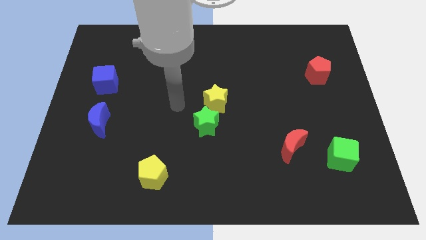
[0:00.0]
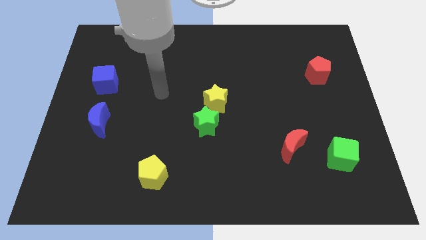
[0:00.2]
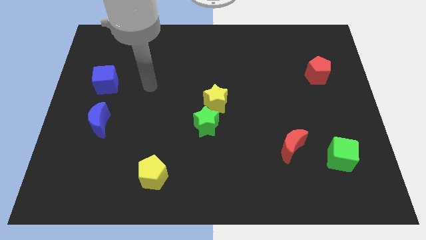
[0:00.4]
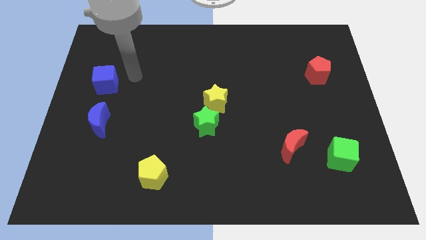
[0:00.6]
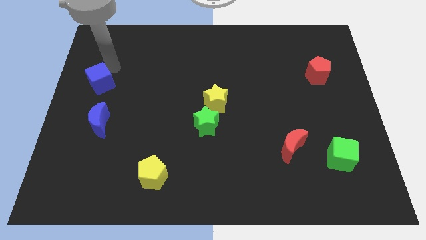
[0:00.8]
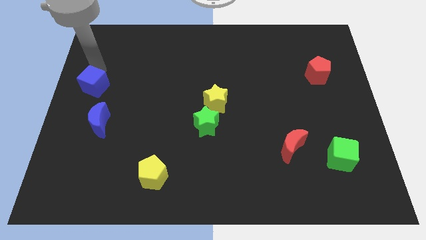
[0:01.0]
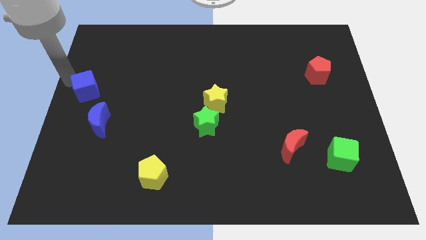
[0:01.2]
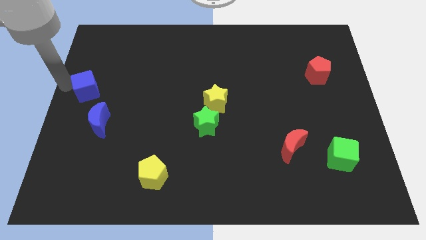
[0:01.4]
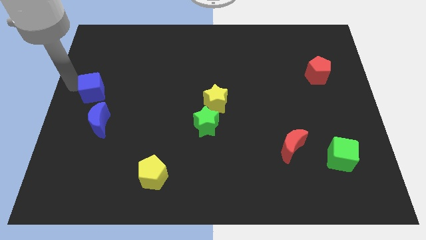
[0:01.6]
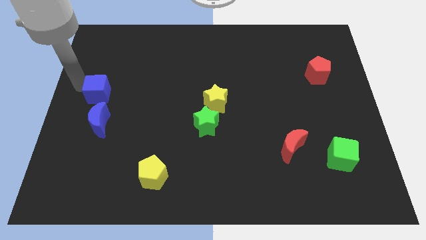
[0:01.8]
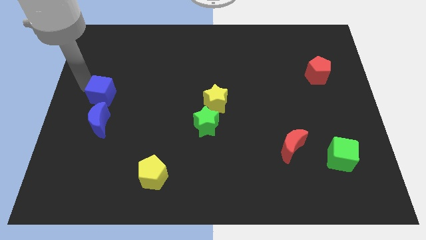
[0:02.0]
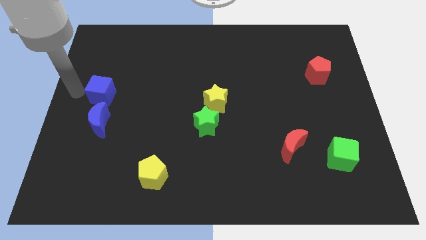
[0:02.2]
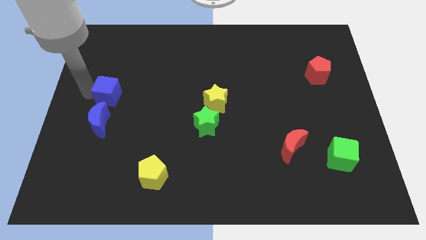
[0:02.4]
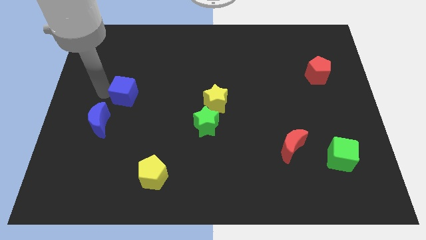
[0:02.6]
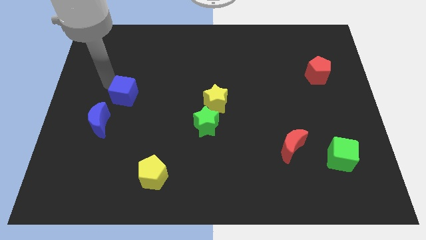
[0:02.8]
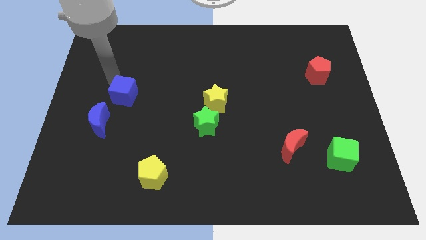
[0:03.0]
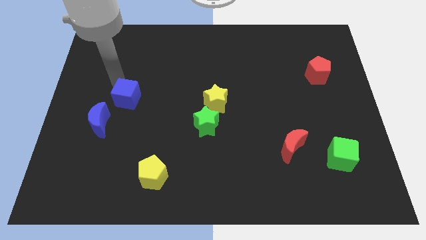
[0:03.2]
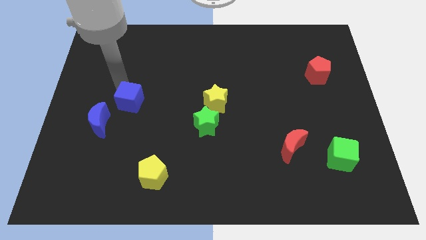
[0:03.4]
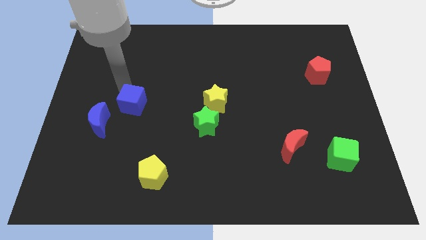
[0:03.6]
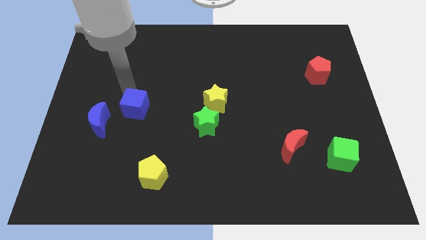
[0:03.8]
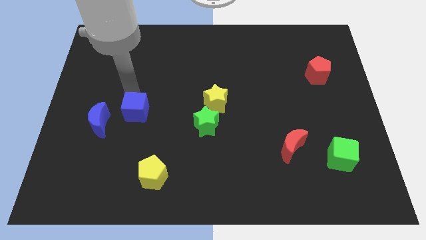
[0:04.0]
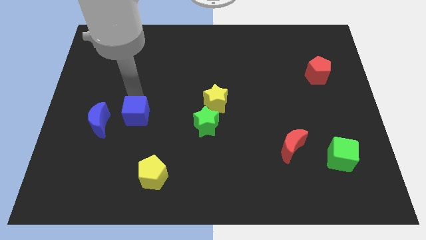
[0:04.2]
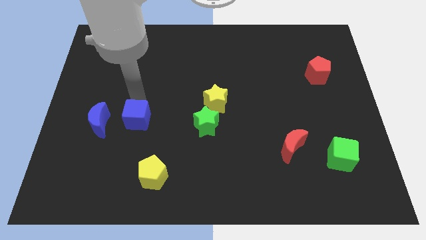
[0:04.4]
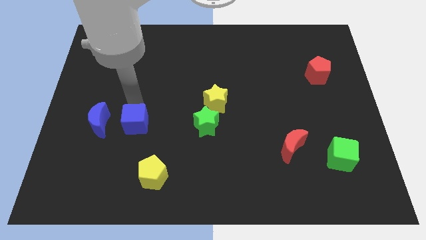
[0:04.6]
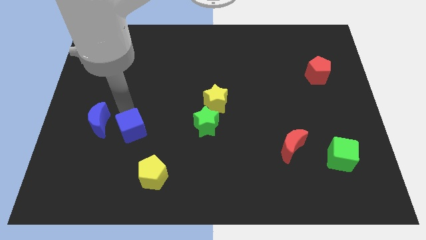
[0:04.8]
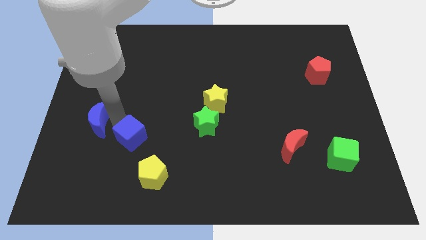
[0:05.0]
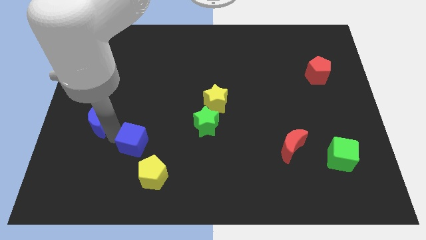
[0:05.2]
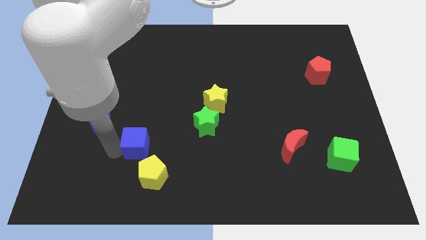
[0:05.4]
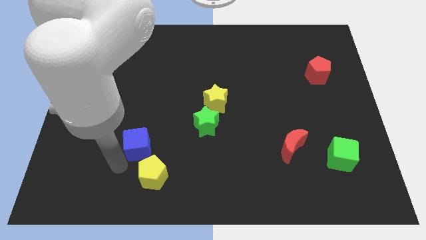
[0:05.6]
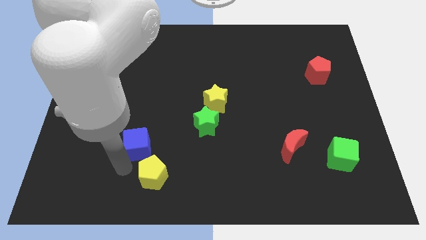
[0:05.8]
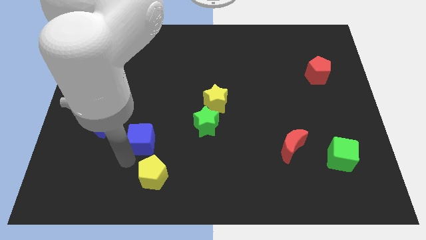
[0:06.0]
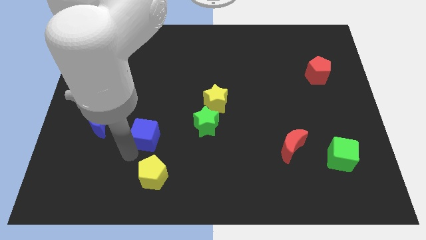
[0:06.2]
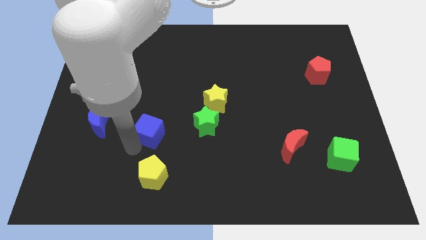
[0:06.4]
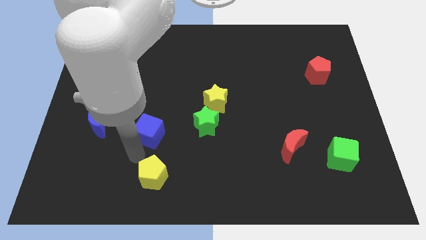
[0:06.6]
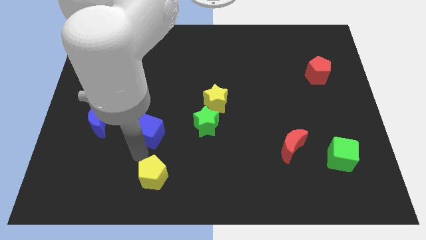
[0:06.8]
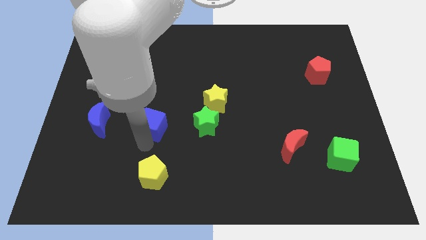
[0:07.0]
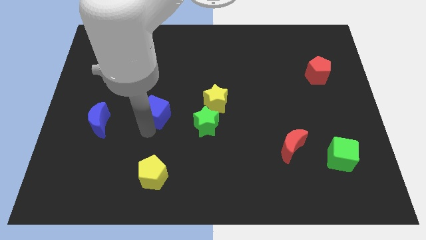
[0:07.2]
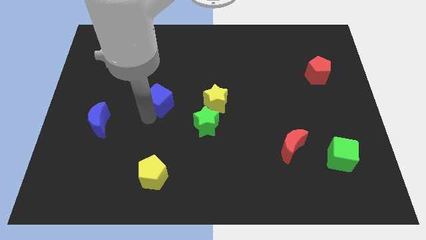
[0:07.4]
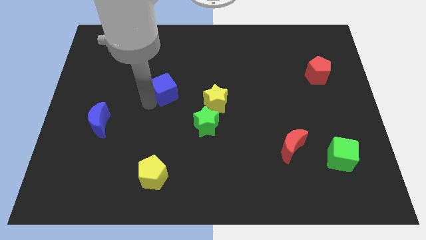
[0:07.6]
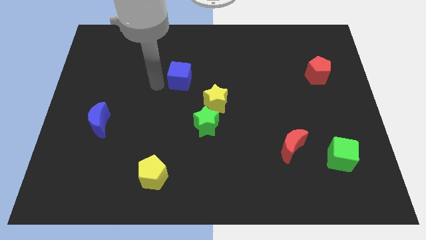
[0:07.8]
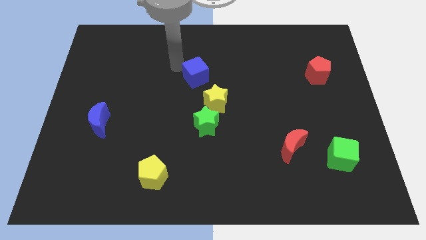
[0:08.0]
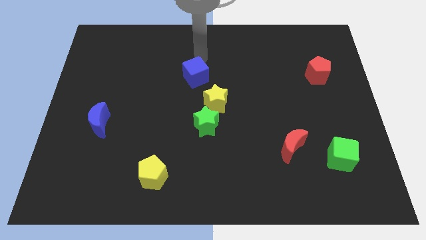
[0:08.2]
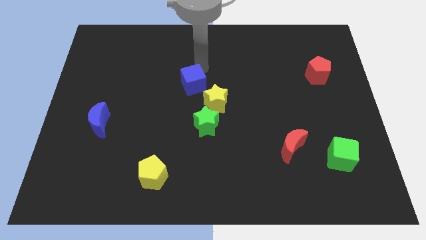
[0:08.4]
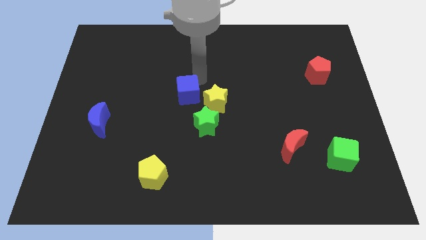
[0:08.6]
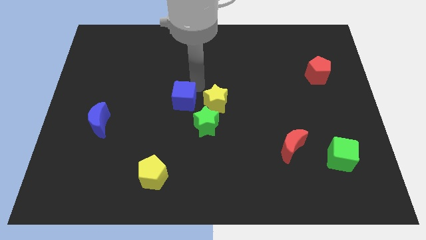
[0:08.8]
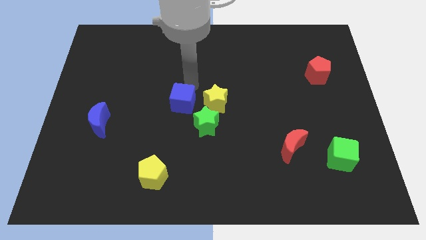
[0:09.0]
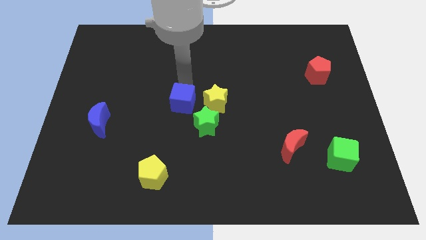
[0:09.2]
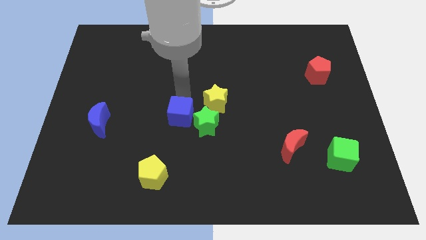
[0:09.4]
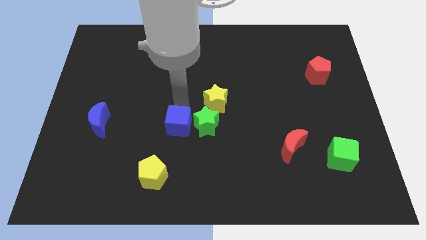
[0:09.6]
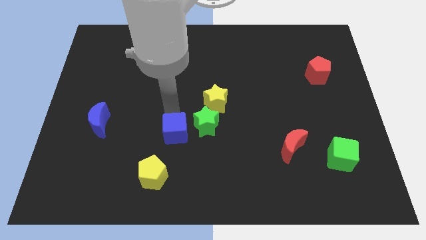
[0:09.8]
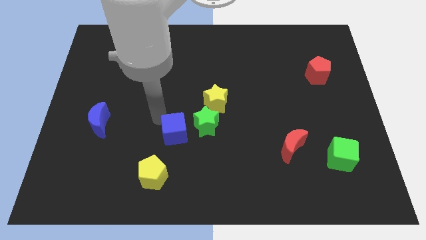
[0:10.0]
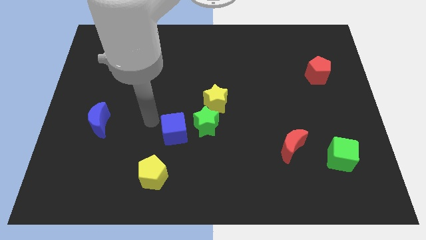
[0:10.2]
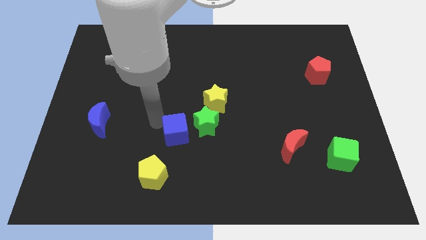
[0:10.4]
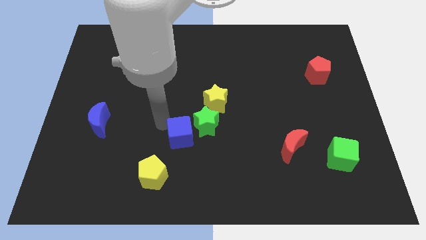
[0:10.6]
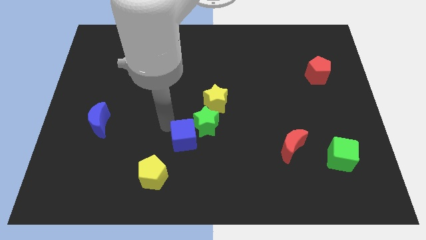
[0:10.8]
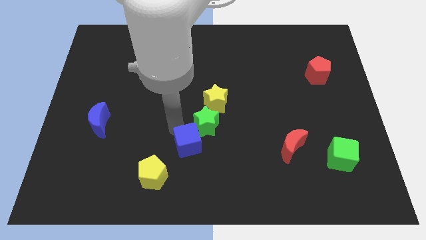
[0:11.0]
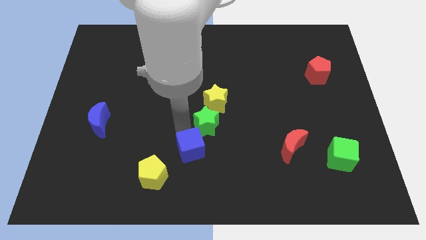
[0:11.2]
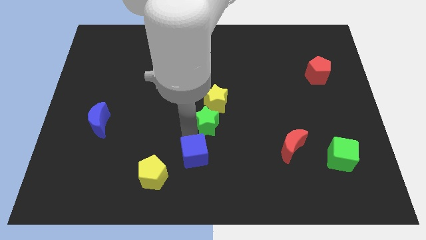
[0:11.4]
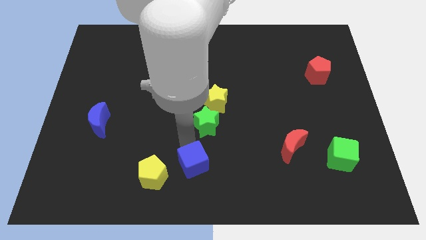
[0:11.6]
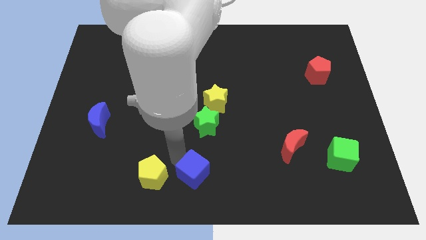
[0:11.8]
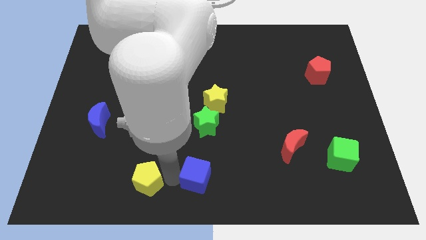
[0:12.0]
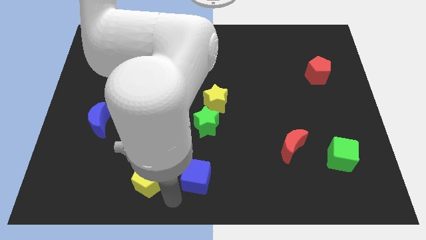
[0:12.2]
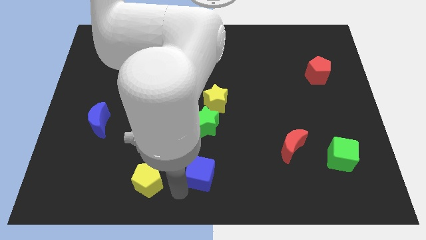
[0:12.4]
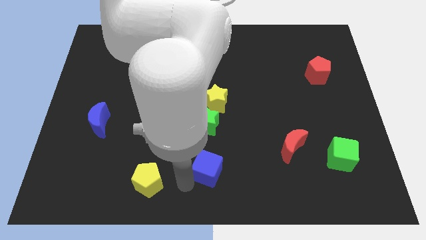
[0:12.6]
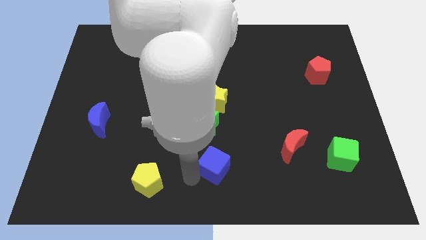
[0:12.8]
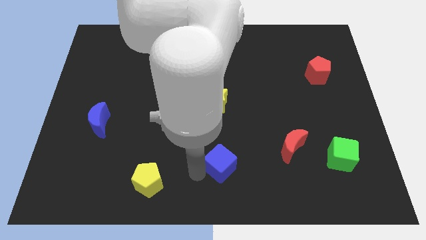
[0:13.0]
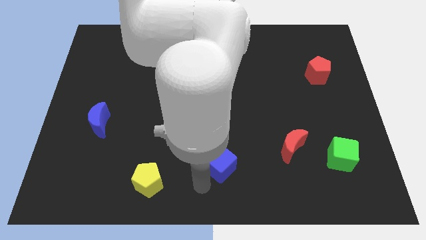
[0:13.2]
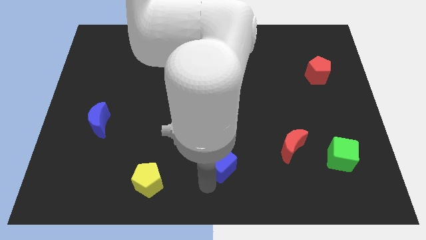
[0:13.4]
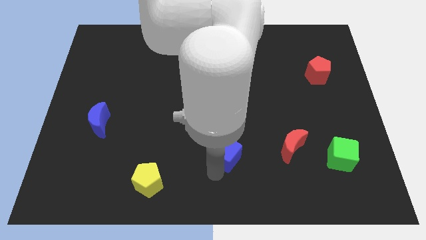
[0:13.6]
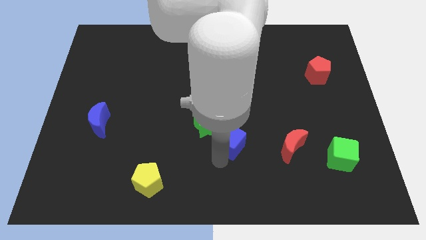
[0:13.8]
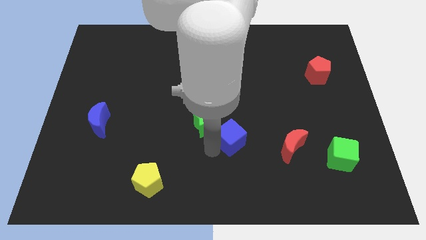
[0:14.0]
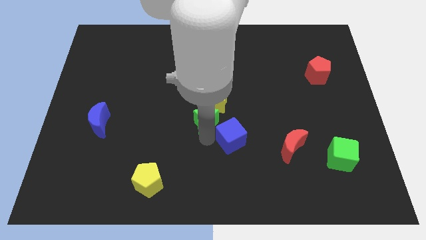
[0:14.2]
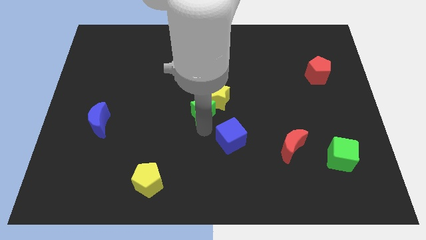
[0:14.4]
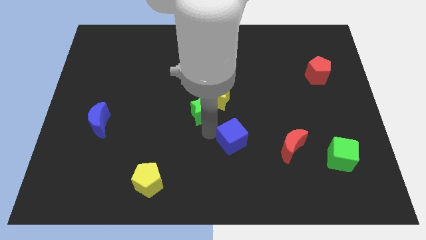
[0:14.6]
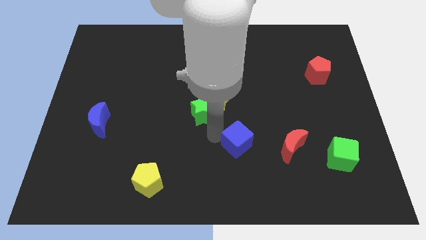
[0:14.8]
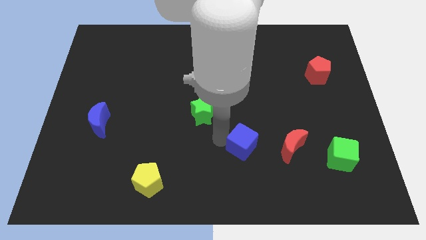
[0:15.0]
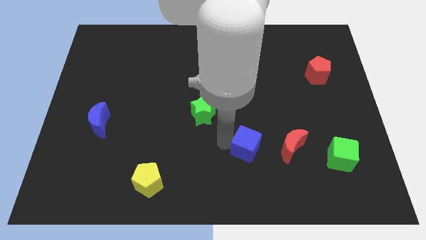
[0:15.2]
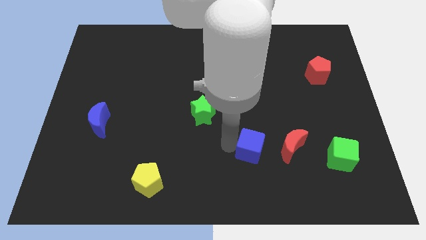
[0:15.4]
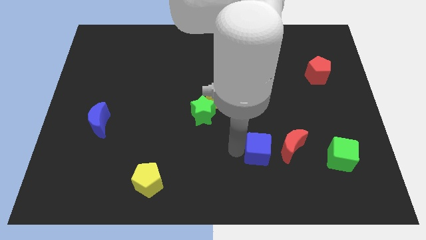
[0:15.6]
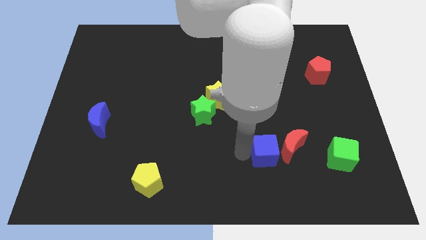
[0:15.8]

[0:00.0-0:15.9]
move the blue cube to the red moon
